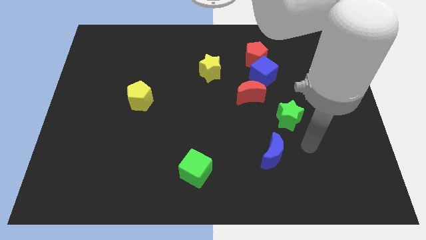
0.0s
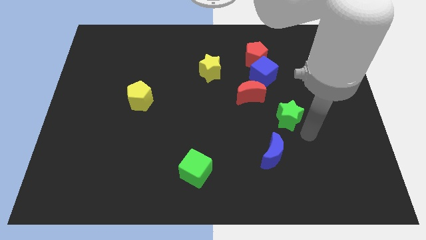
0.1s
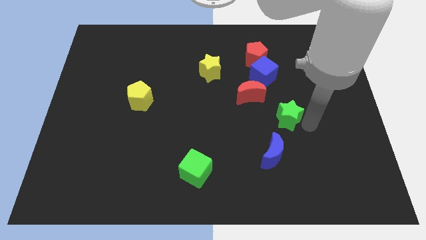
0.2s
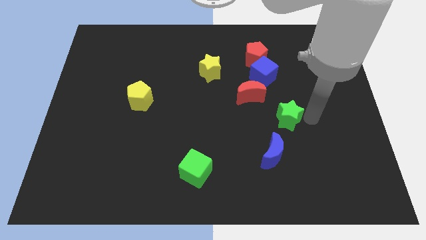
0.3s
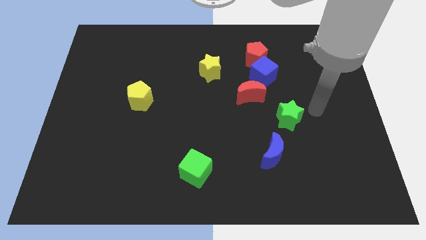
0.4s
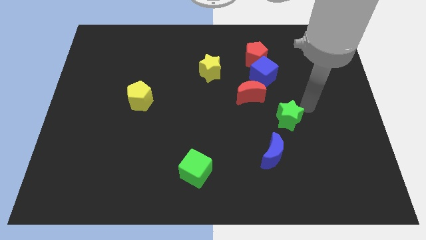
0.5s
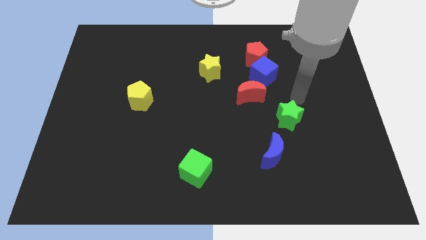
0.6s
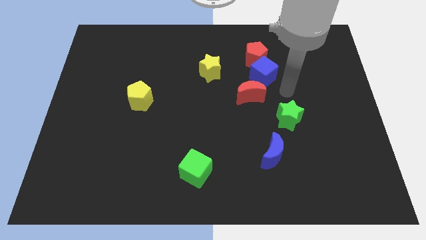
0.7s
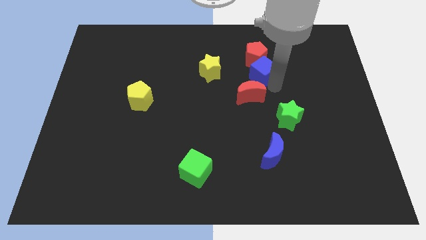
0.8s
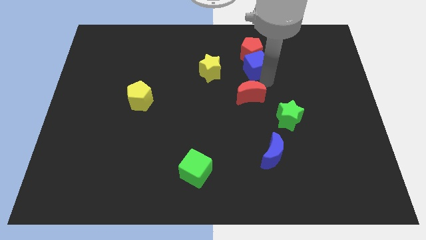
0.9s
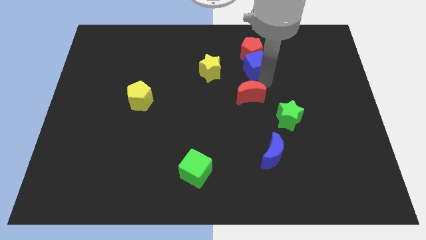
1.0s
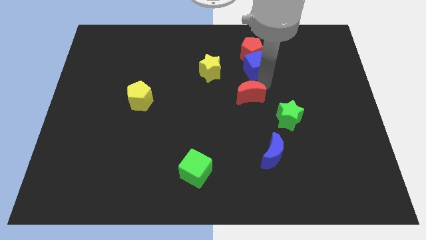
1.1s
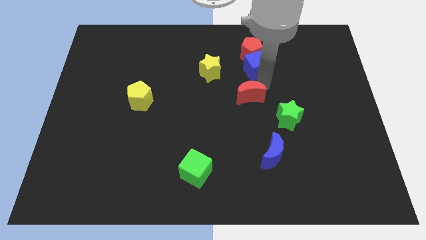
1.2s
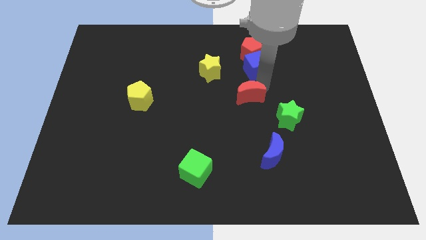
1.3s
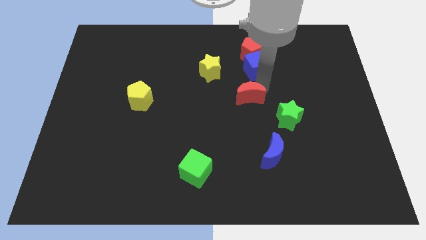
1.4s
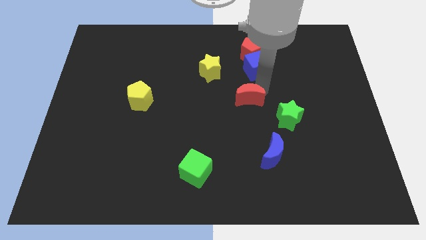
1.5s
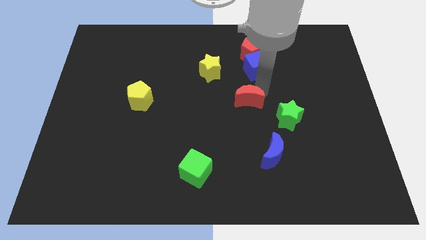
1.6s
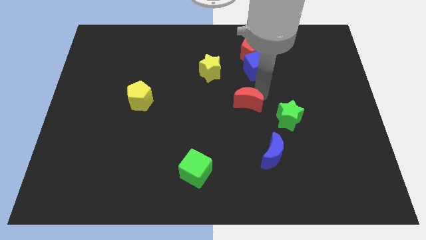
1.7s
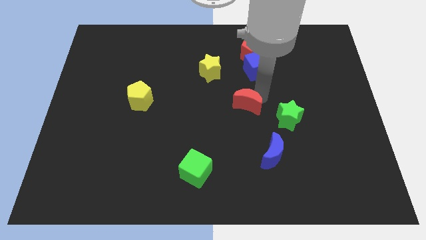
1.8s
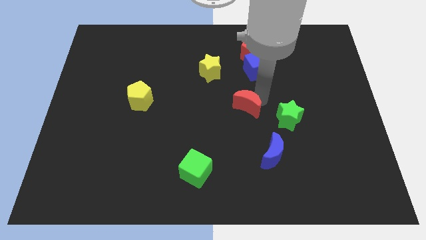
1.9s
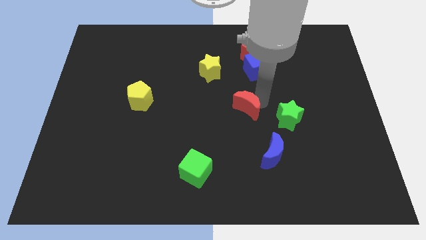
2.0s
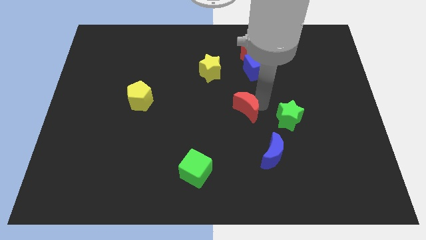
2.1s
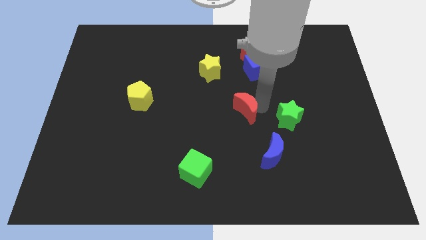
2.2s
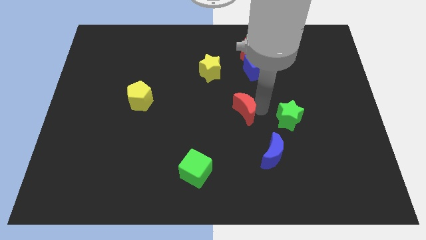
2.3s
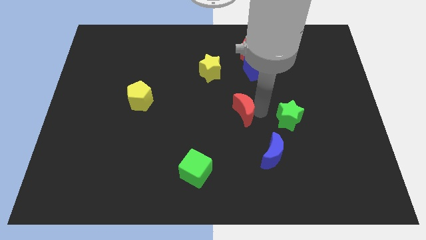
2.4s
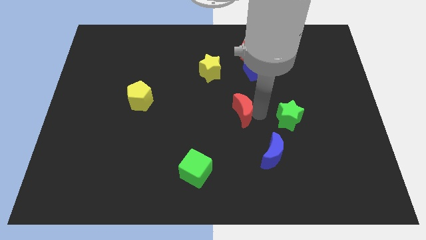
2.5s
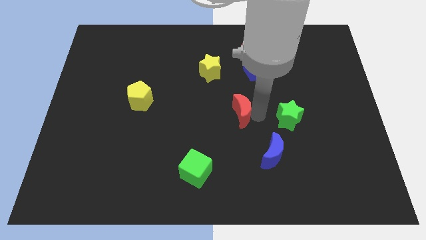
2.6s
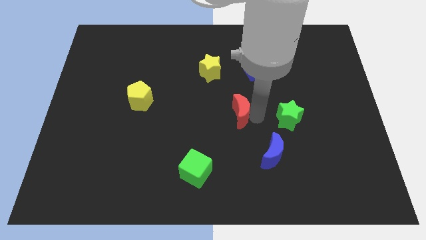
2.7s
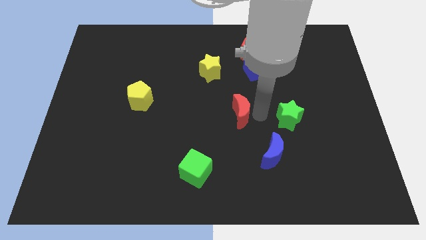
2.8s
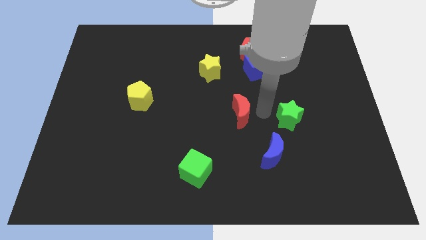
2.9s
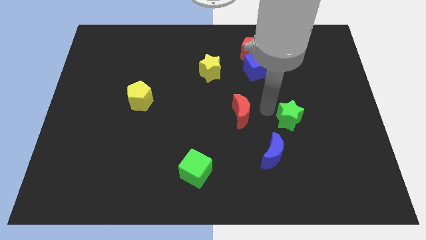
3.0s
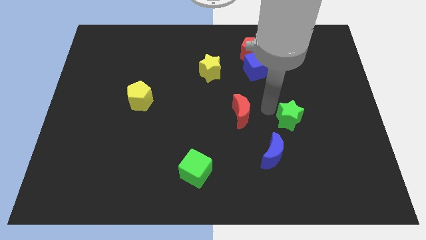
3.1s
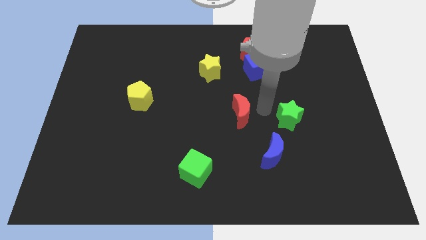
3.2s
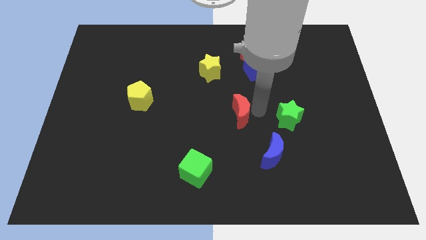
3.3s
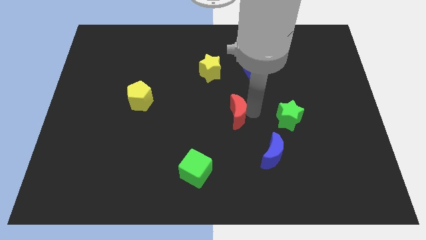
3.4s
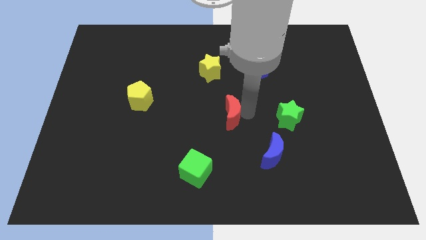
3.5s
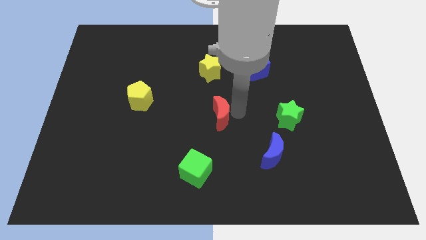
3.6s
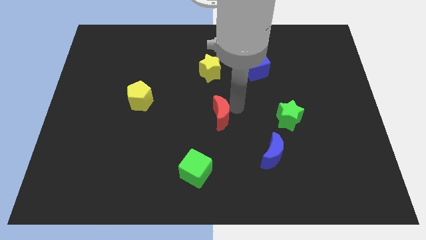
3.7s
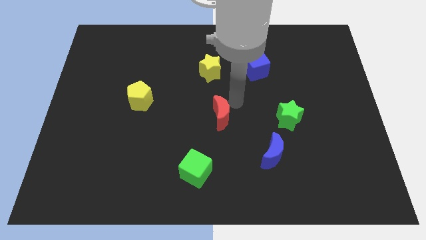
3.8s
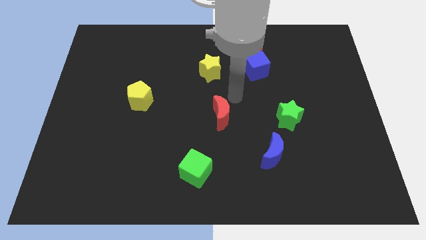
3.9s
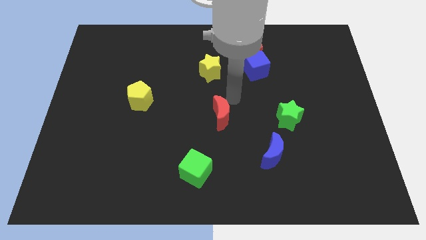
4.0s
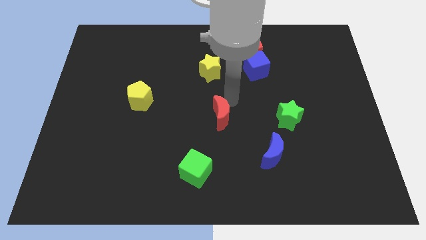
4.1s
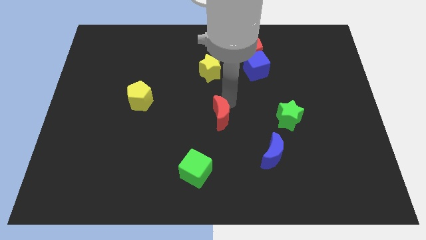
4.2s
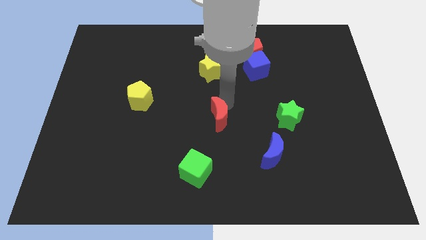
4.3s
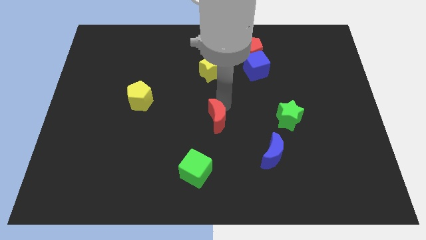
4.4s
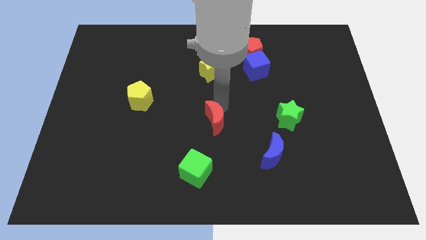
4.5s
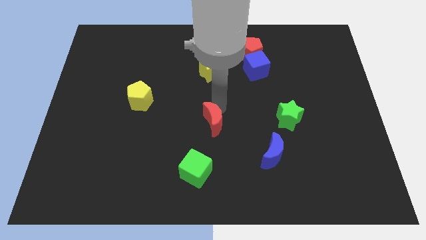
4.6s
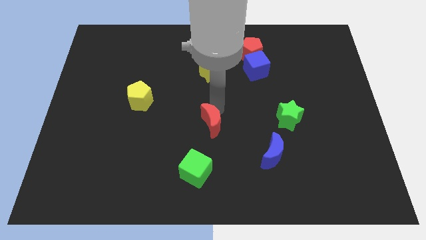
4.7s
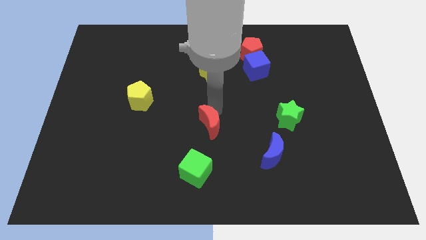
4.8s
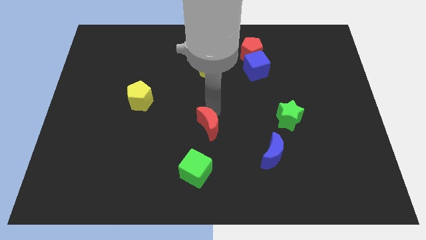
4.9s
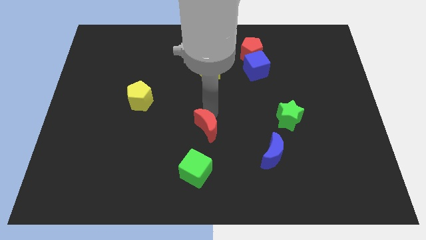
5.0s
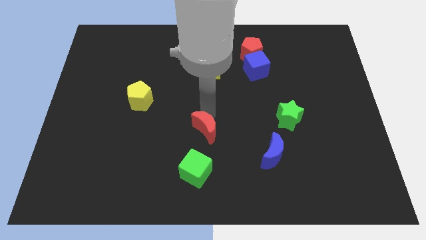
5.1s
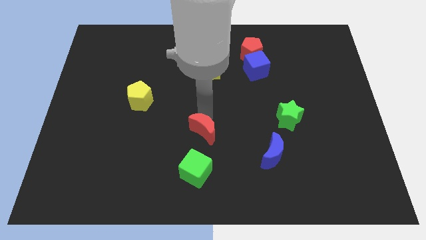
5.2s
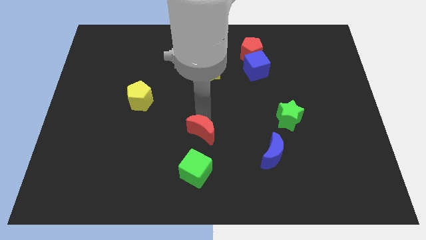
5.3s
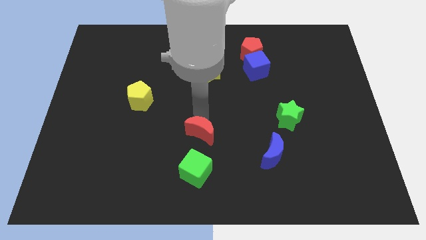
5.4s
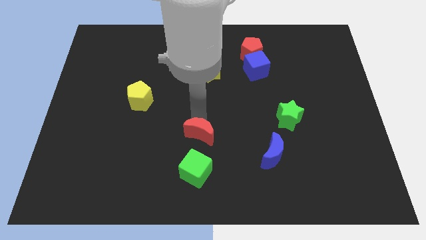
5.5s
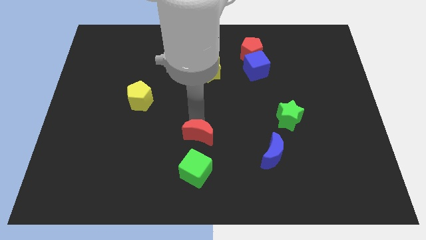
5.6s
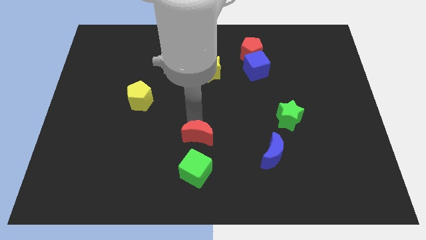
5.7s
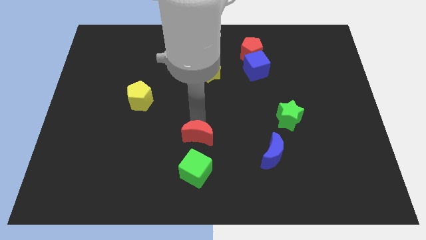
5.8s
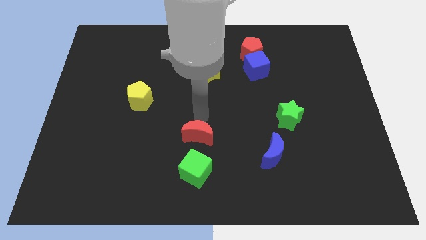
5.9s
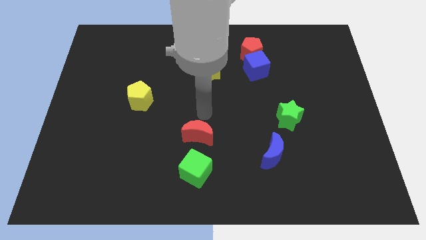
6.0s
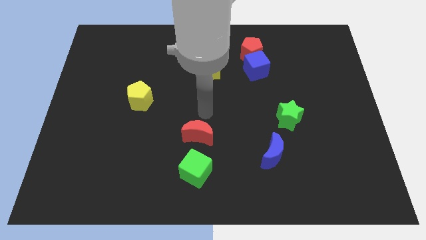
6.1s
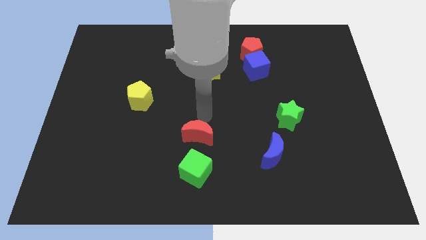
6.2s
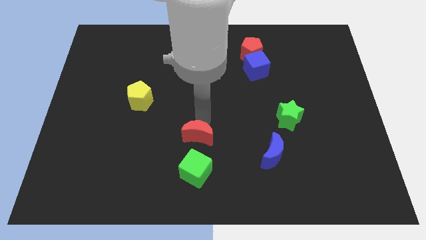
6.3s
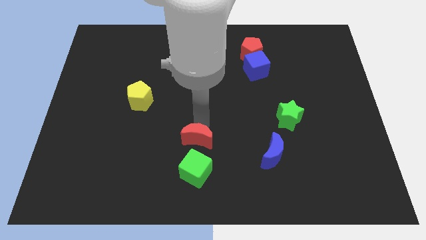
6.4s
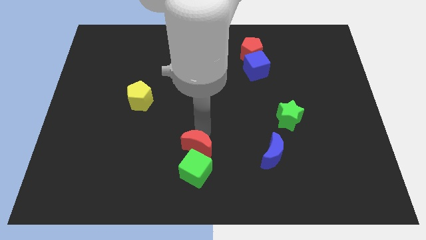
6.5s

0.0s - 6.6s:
slide the red moon to the top left side of the green cube

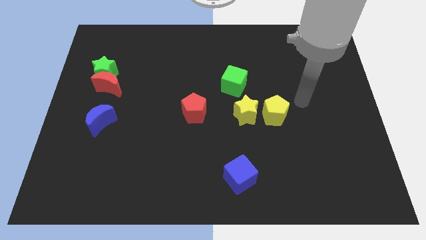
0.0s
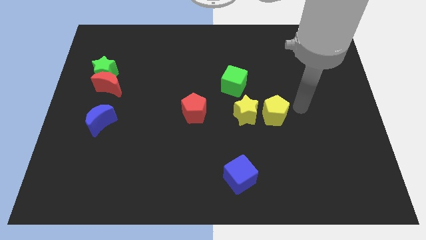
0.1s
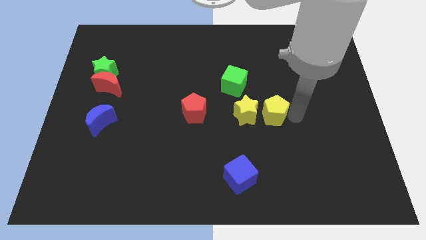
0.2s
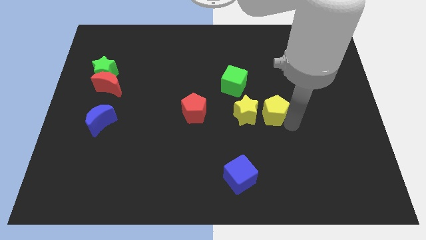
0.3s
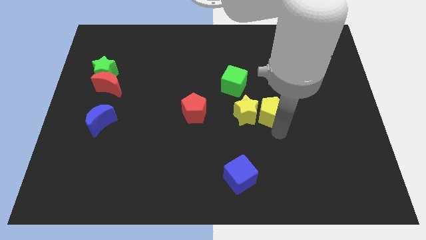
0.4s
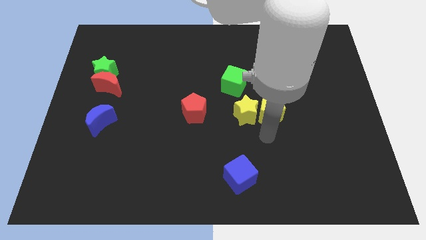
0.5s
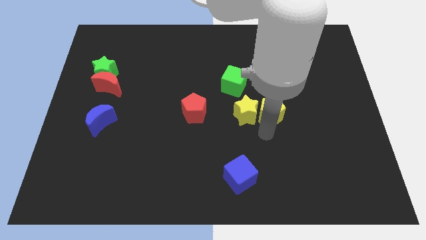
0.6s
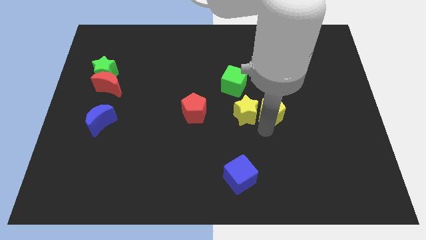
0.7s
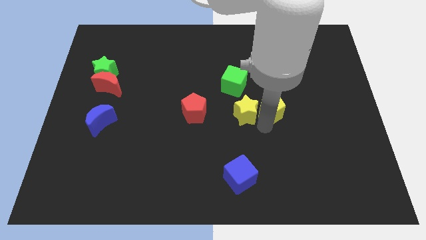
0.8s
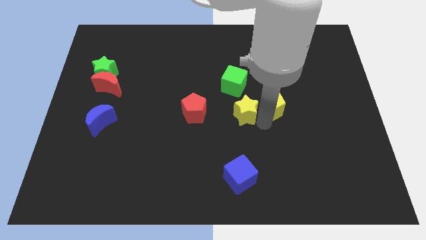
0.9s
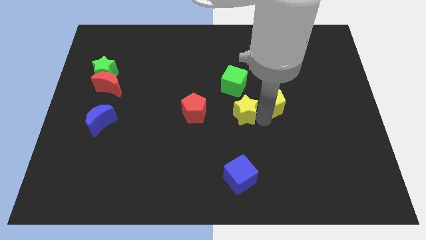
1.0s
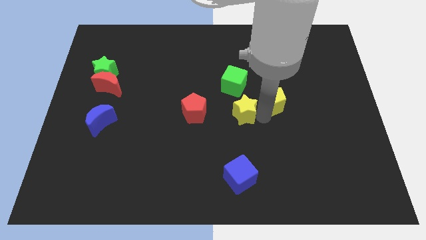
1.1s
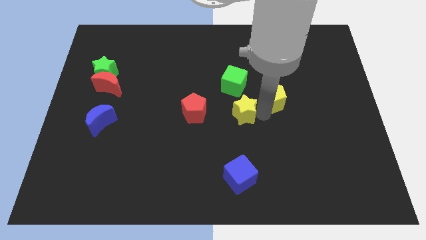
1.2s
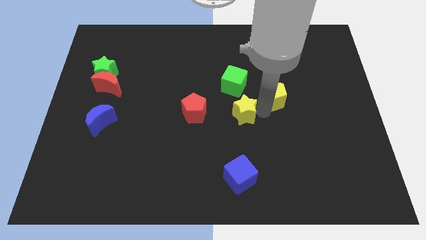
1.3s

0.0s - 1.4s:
put the yellow pentagon just right of the green cube
